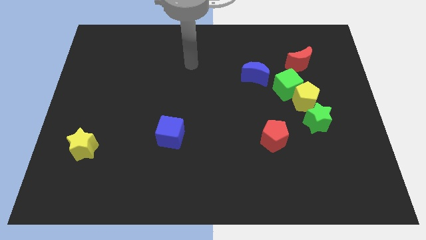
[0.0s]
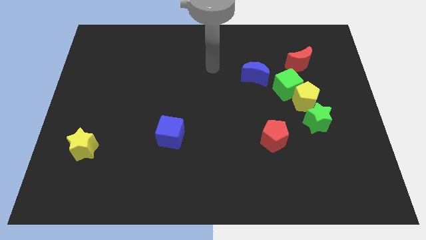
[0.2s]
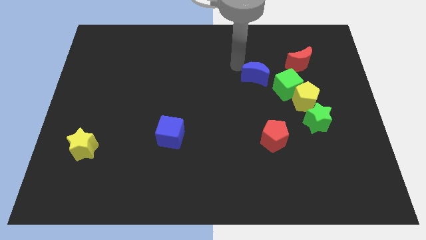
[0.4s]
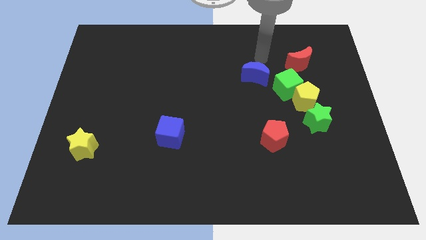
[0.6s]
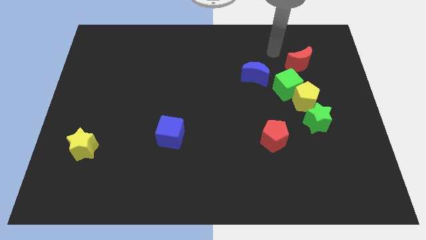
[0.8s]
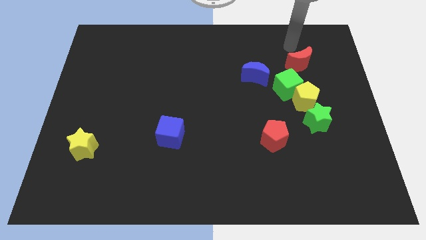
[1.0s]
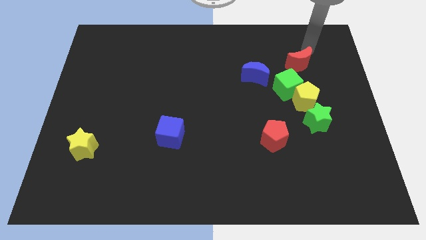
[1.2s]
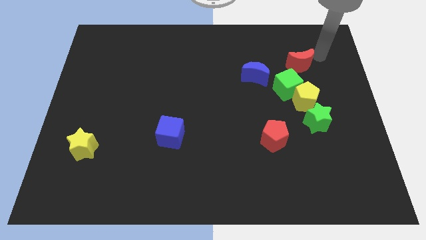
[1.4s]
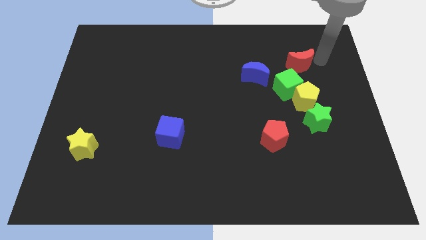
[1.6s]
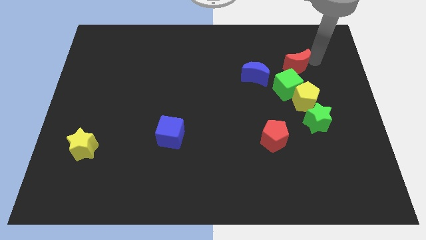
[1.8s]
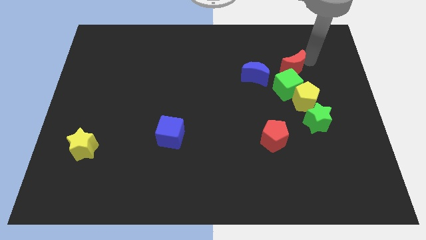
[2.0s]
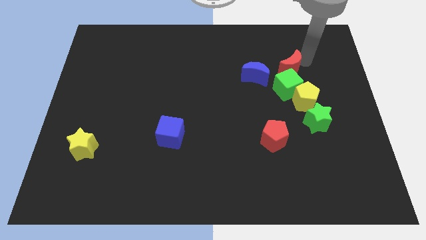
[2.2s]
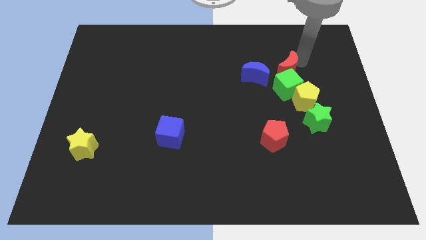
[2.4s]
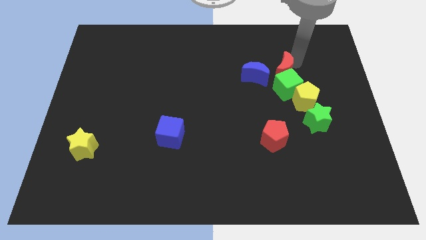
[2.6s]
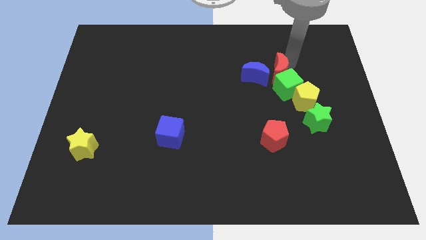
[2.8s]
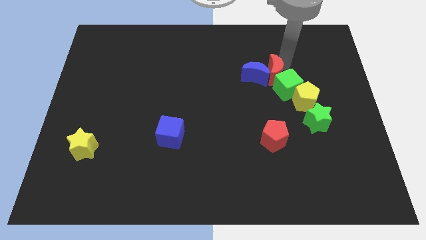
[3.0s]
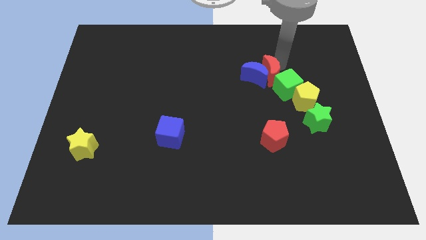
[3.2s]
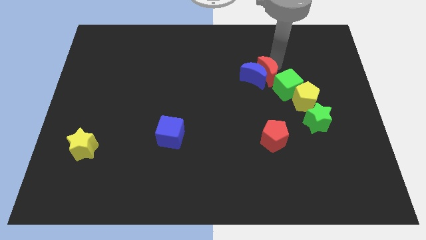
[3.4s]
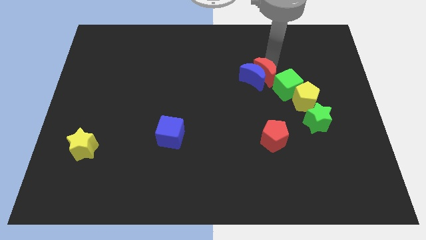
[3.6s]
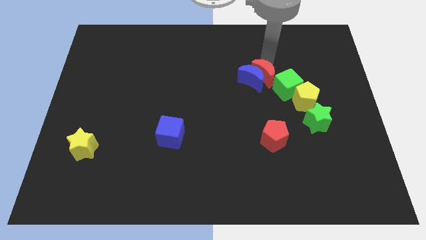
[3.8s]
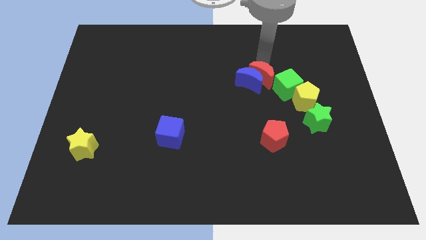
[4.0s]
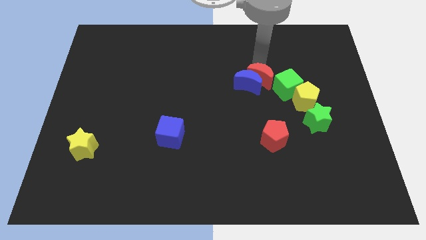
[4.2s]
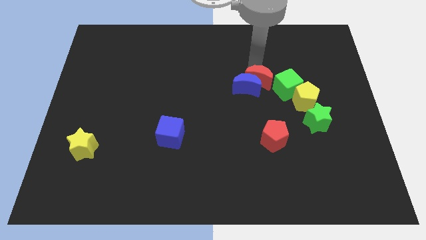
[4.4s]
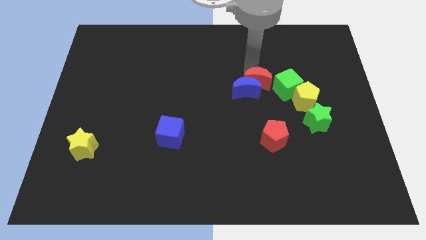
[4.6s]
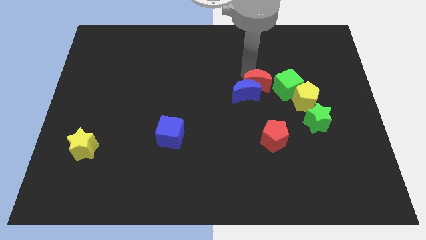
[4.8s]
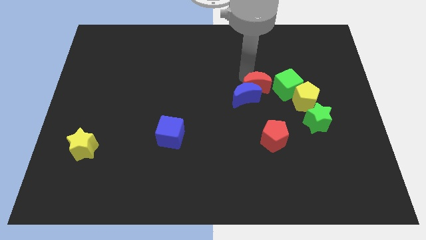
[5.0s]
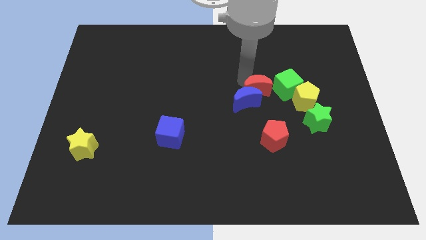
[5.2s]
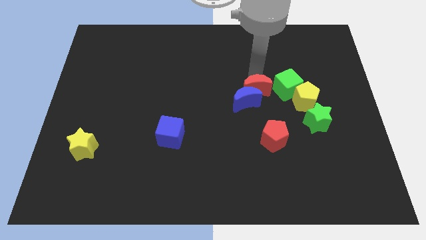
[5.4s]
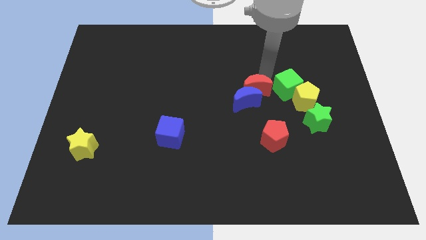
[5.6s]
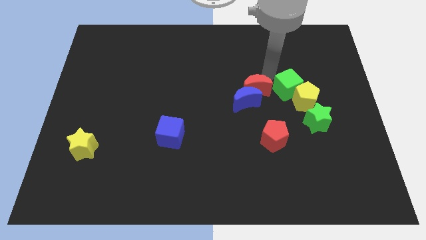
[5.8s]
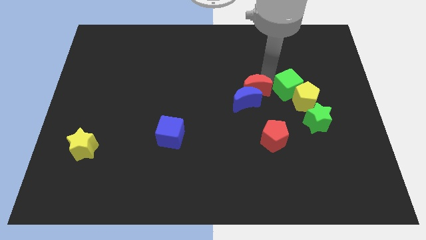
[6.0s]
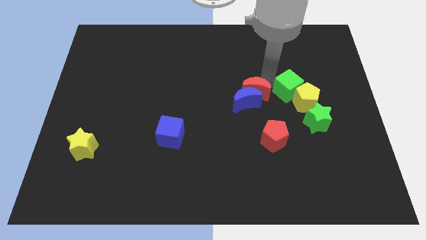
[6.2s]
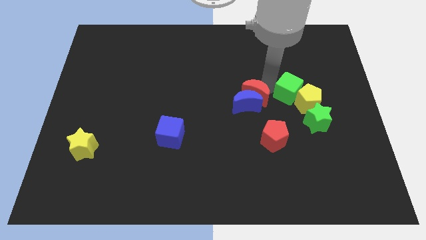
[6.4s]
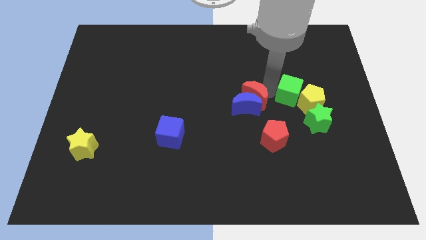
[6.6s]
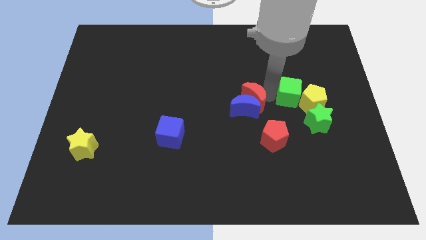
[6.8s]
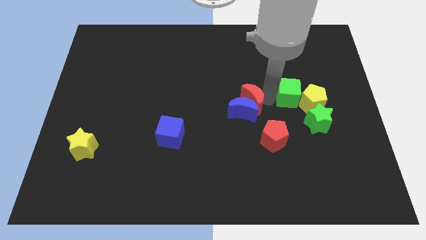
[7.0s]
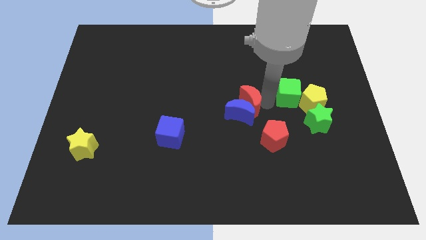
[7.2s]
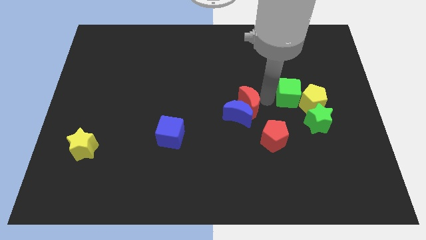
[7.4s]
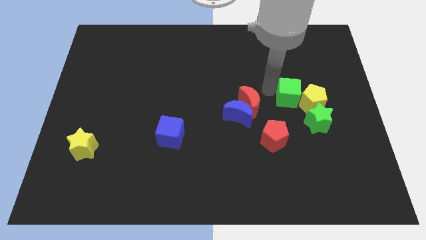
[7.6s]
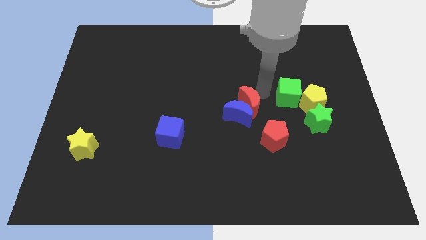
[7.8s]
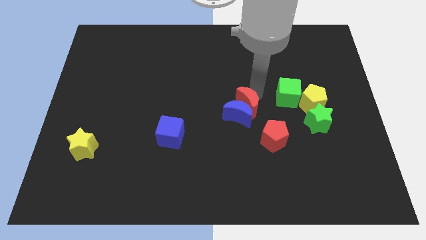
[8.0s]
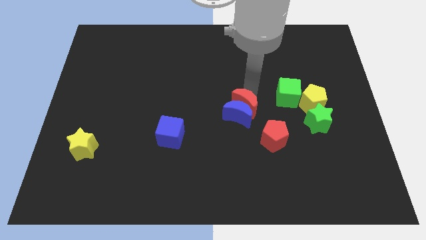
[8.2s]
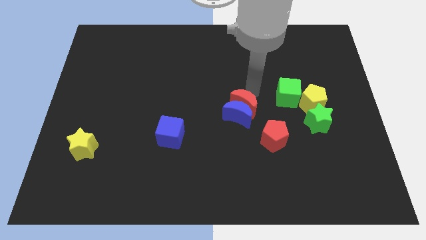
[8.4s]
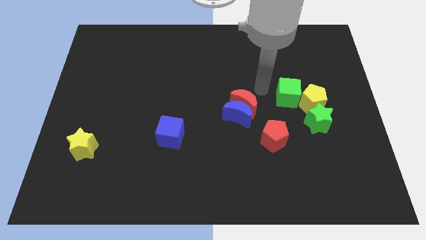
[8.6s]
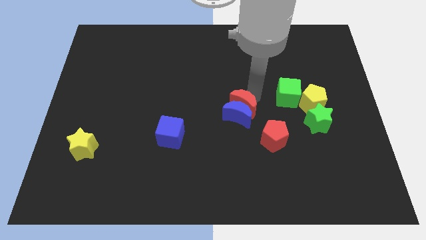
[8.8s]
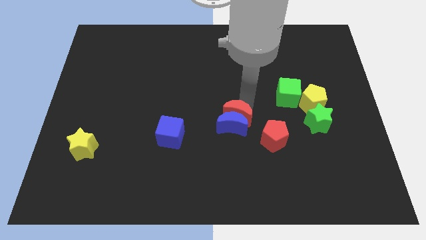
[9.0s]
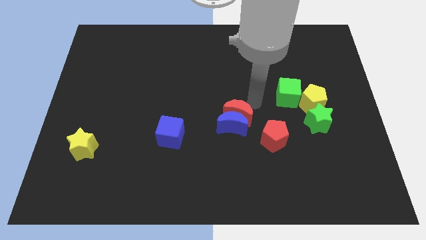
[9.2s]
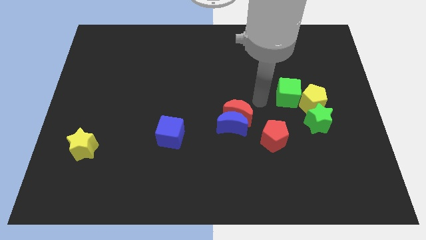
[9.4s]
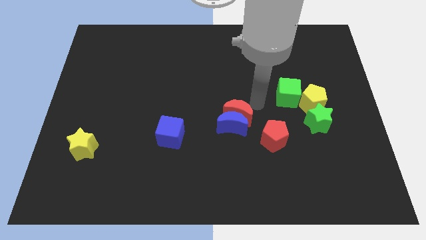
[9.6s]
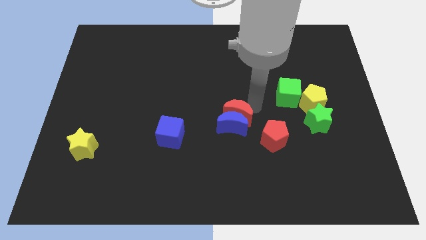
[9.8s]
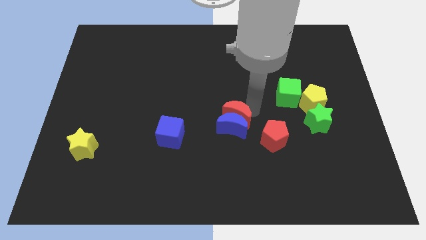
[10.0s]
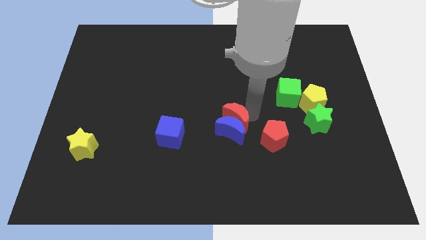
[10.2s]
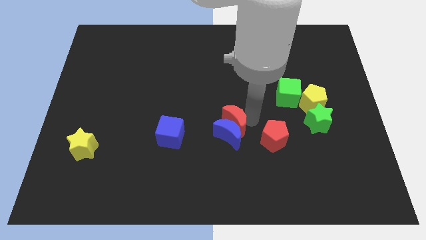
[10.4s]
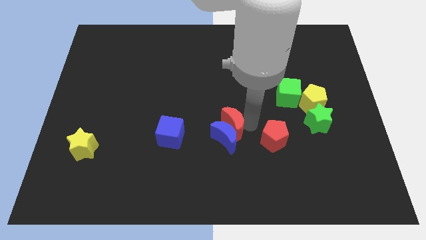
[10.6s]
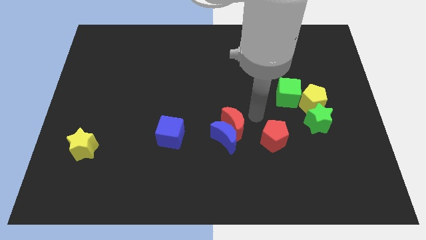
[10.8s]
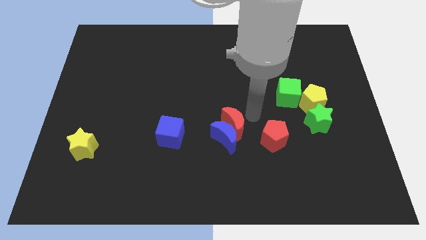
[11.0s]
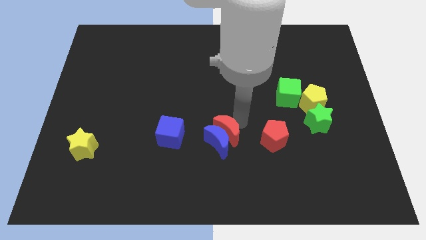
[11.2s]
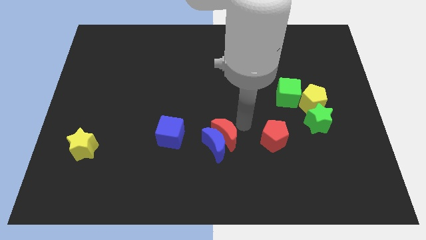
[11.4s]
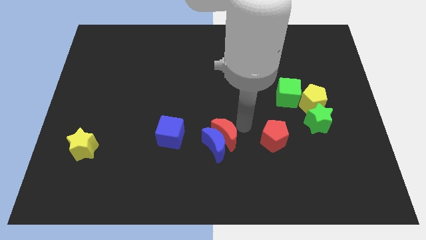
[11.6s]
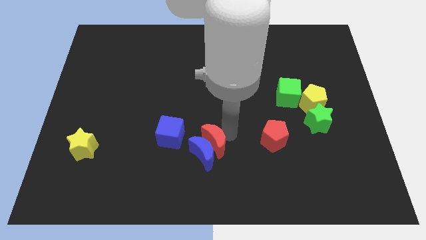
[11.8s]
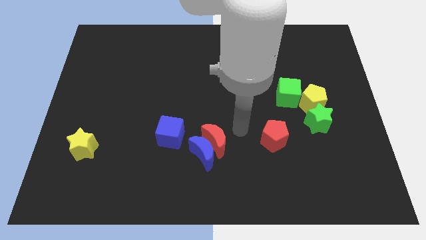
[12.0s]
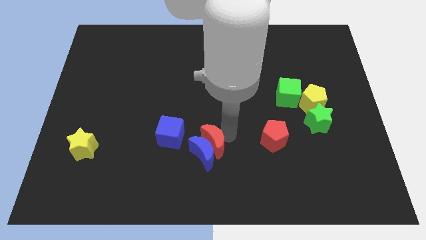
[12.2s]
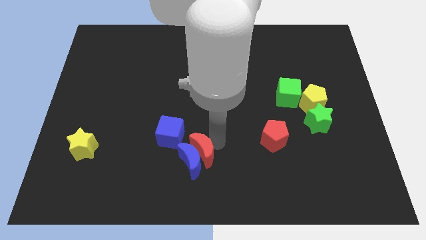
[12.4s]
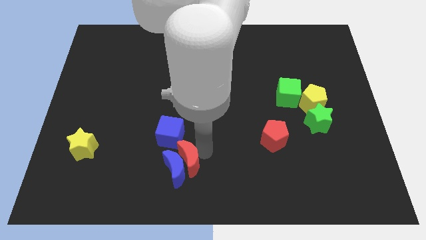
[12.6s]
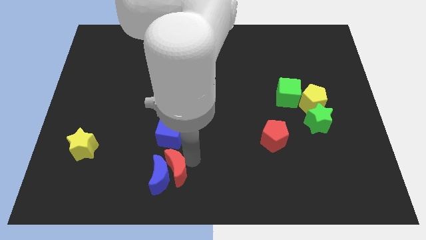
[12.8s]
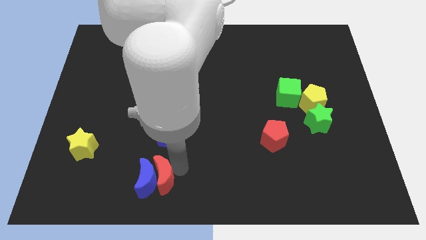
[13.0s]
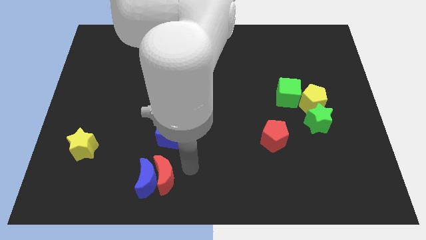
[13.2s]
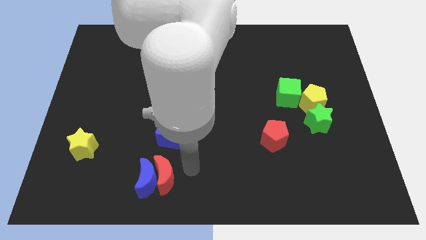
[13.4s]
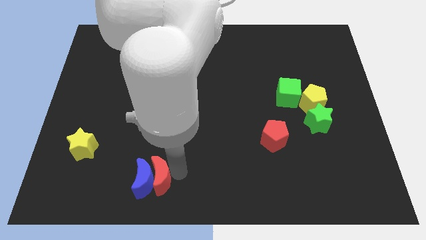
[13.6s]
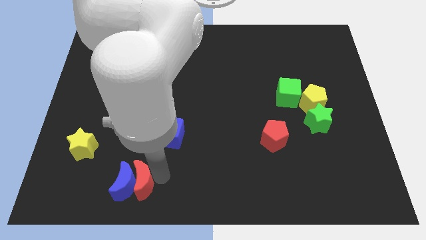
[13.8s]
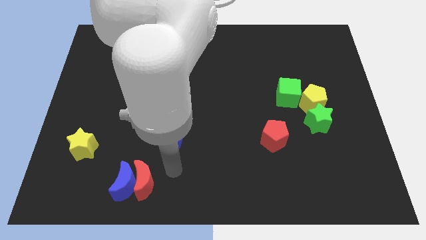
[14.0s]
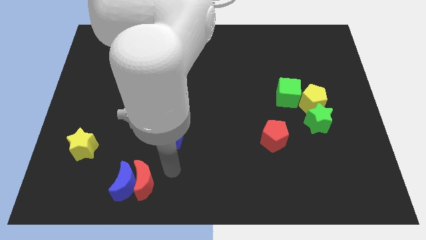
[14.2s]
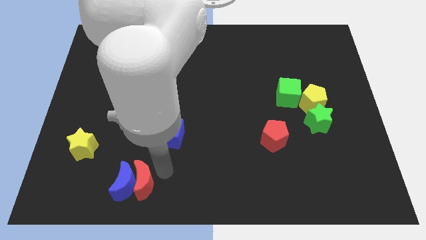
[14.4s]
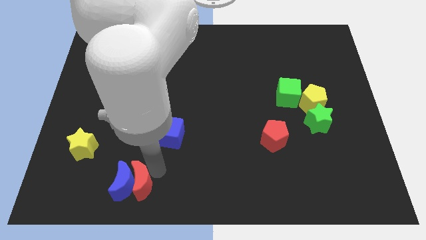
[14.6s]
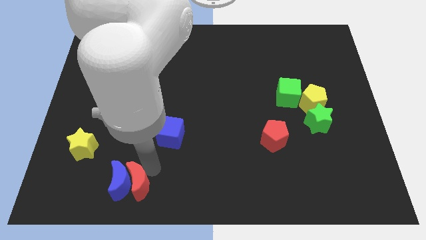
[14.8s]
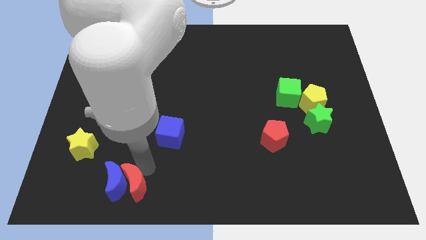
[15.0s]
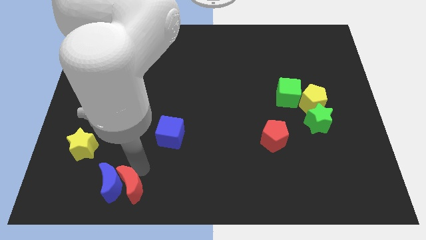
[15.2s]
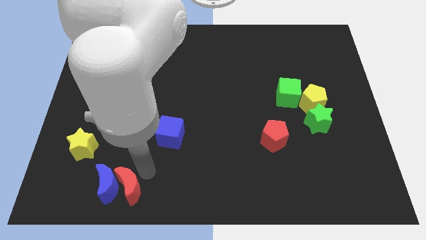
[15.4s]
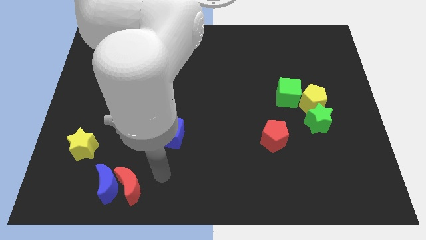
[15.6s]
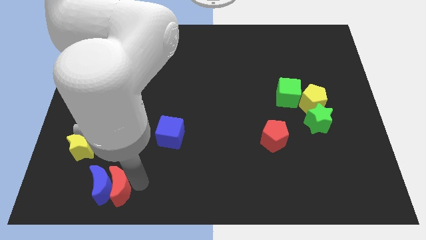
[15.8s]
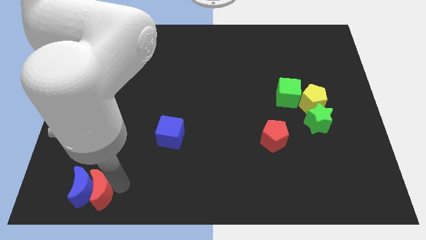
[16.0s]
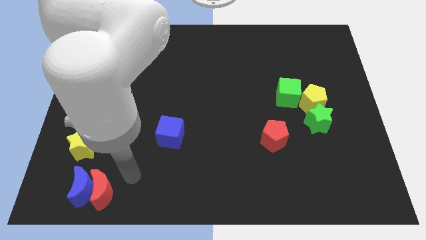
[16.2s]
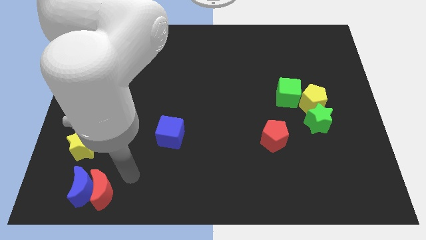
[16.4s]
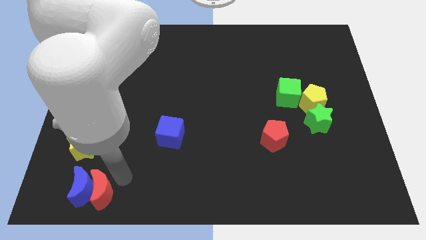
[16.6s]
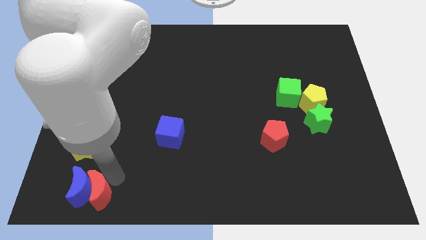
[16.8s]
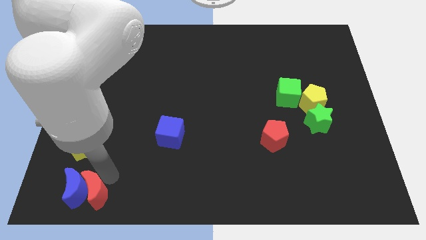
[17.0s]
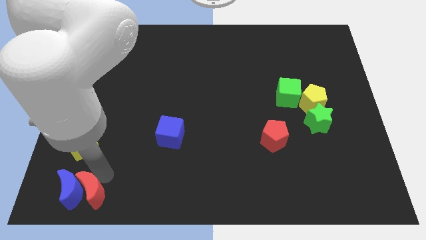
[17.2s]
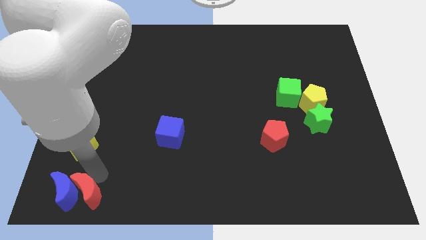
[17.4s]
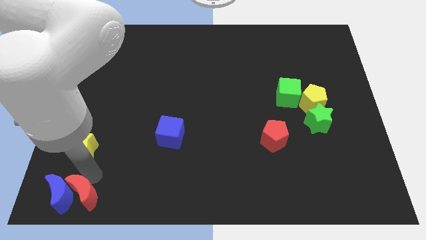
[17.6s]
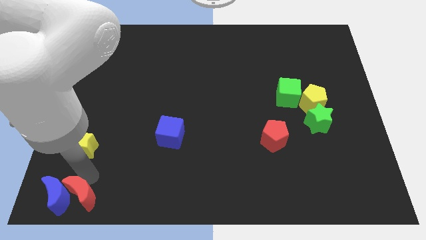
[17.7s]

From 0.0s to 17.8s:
slide the red moon to the bottom left
